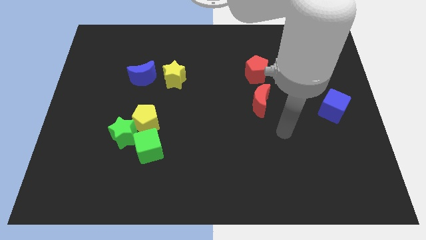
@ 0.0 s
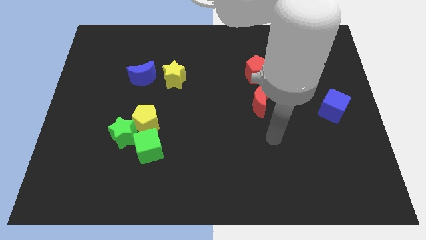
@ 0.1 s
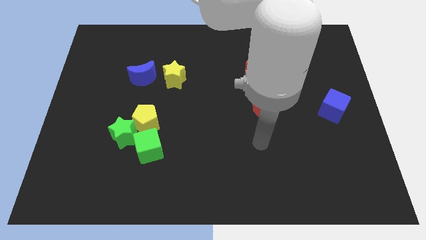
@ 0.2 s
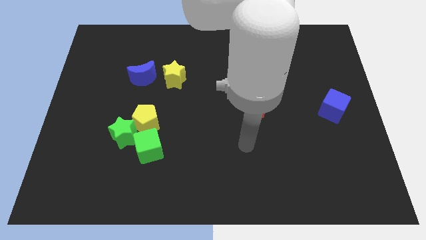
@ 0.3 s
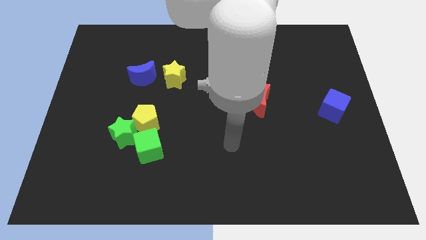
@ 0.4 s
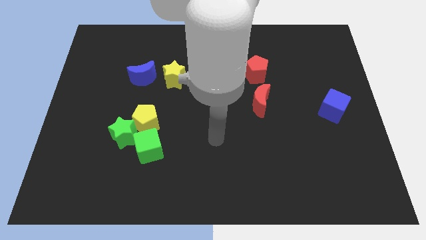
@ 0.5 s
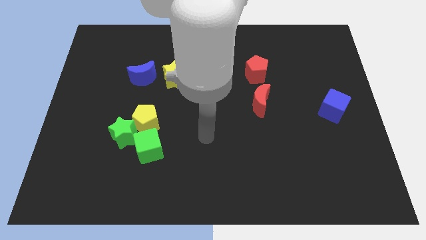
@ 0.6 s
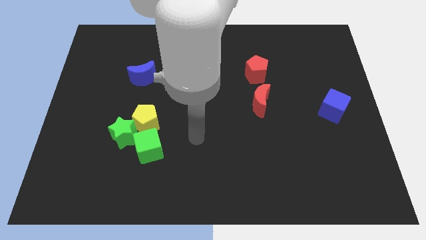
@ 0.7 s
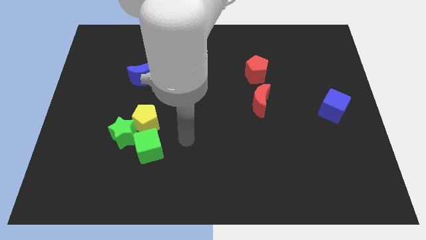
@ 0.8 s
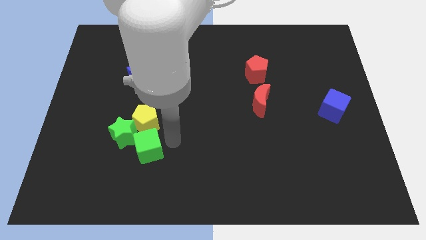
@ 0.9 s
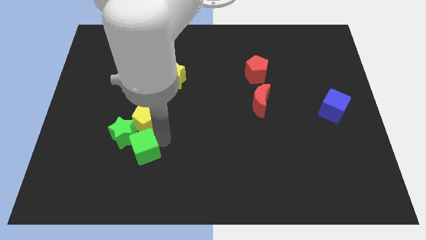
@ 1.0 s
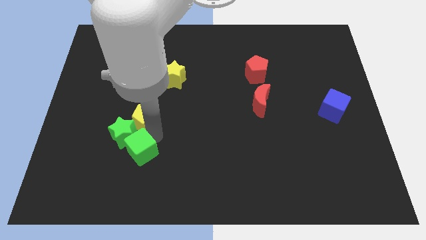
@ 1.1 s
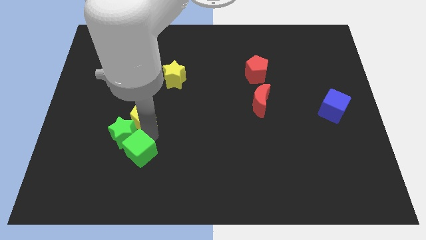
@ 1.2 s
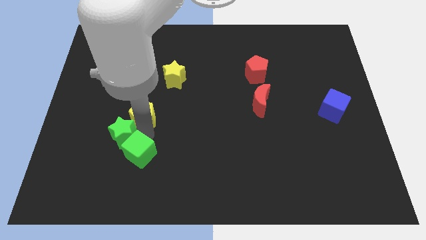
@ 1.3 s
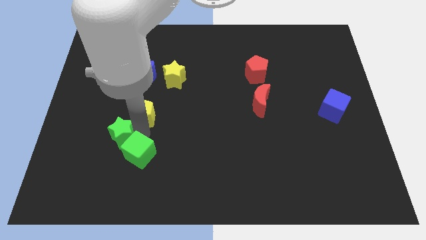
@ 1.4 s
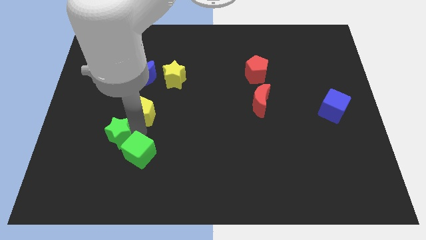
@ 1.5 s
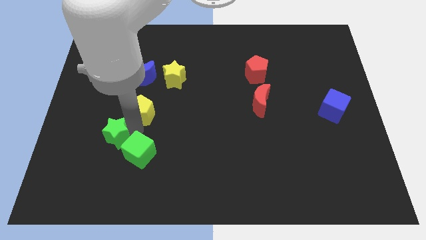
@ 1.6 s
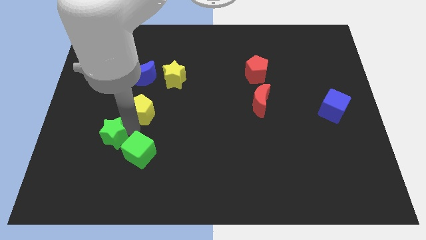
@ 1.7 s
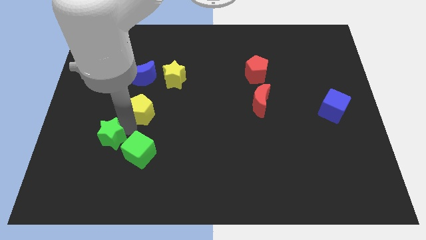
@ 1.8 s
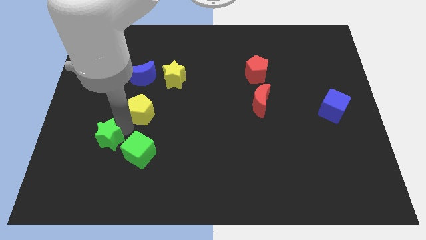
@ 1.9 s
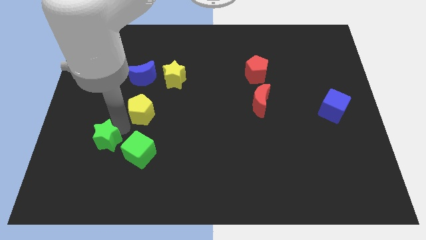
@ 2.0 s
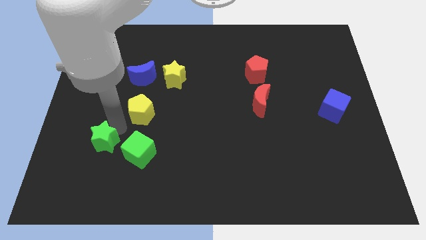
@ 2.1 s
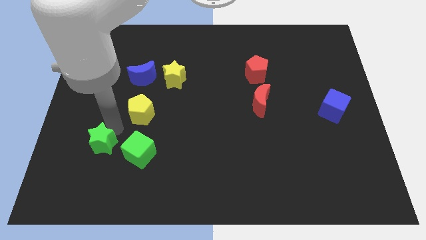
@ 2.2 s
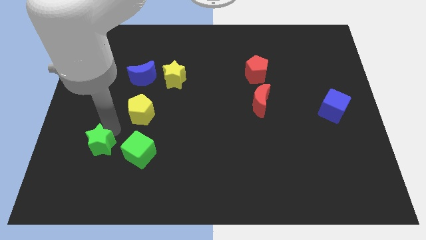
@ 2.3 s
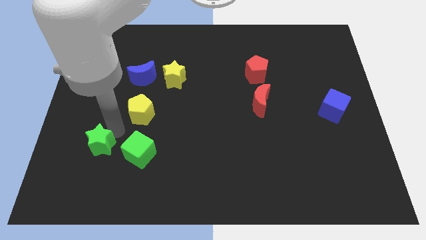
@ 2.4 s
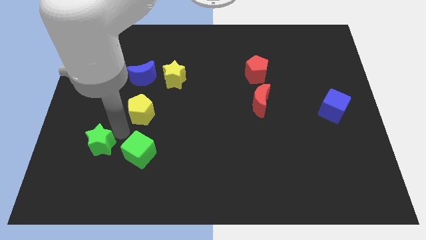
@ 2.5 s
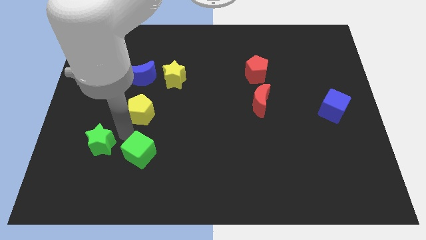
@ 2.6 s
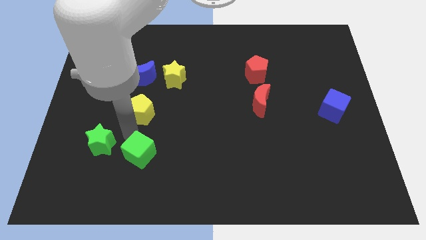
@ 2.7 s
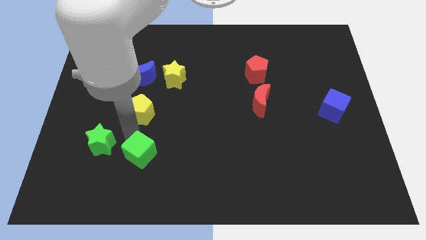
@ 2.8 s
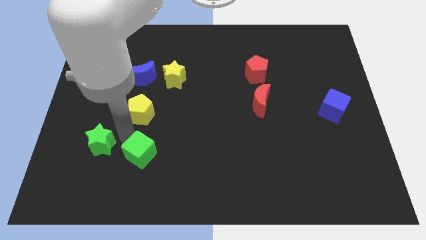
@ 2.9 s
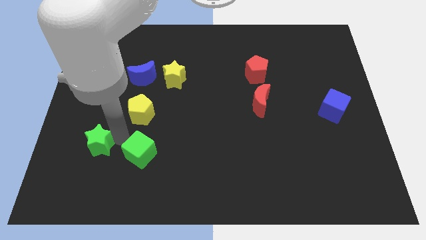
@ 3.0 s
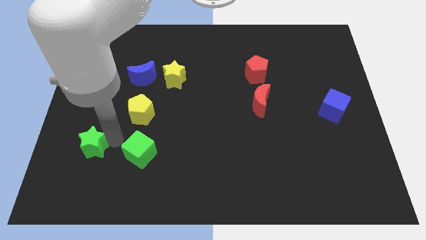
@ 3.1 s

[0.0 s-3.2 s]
move the green star away from the yellow pentagon and green cube

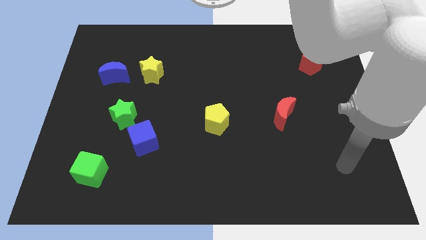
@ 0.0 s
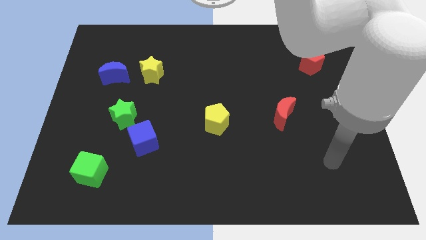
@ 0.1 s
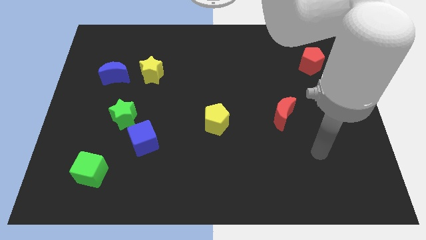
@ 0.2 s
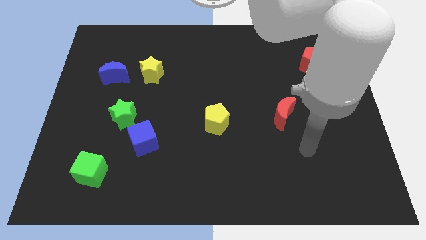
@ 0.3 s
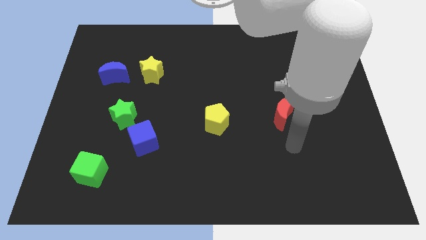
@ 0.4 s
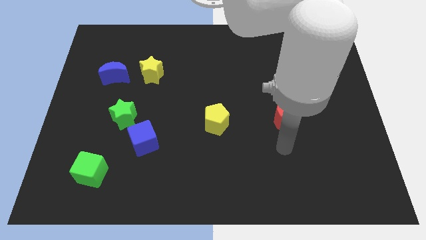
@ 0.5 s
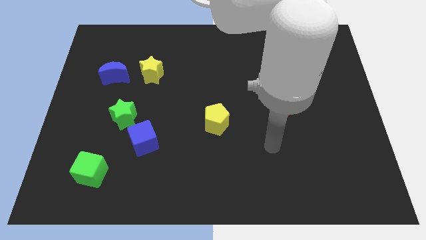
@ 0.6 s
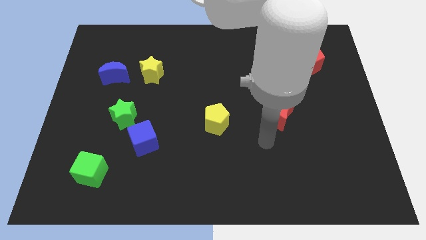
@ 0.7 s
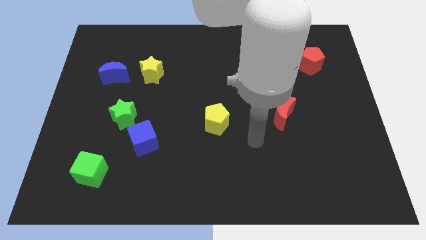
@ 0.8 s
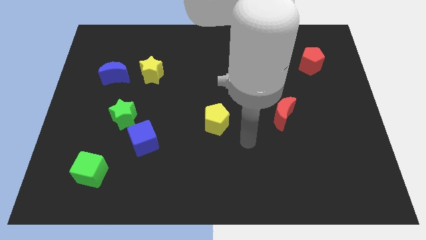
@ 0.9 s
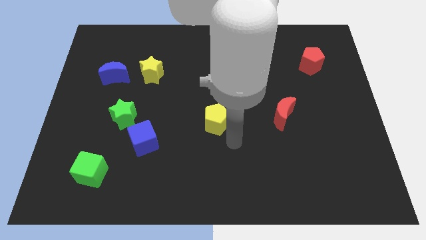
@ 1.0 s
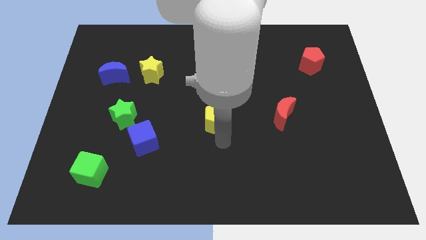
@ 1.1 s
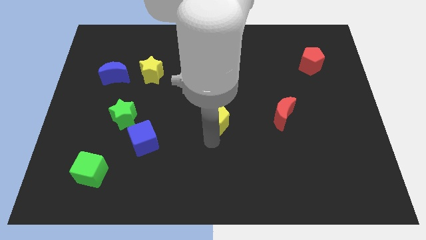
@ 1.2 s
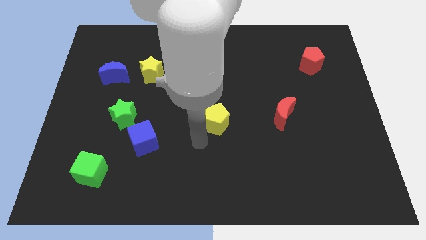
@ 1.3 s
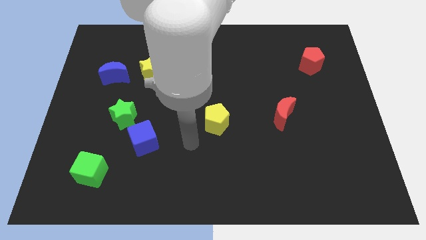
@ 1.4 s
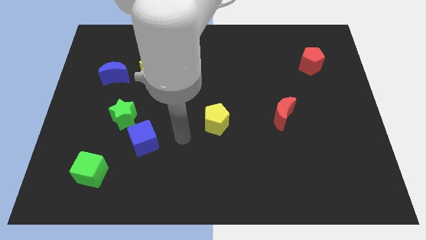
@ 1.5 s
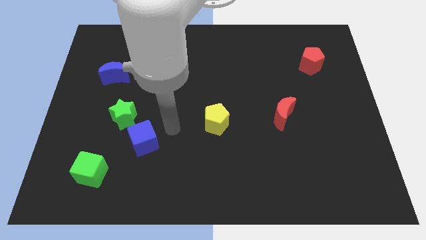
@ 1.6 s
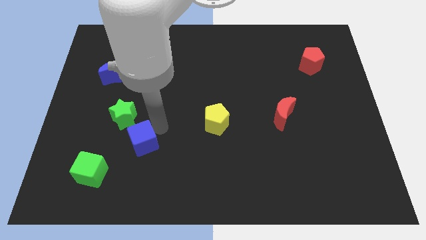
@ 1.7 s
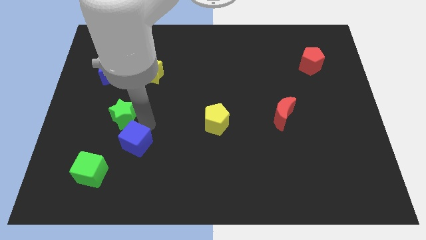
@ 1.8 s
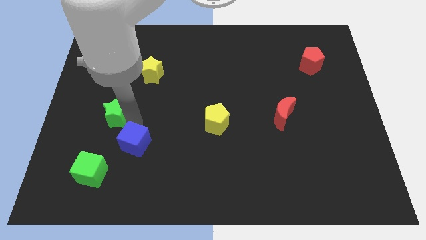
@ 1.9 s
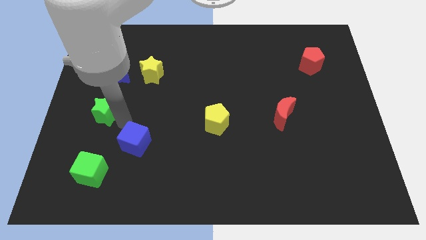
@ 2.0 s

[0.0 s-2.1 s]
separate the blue cube from the green star

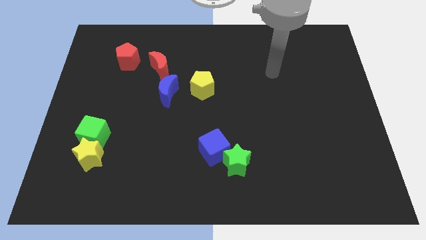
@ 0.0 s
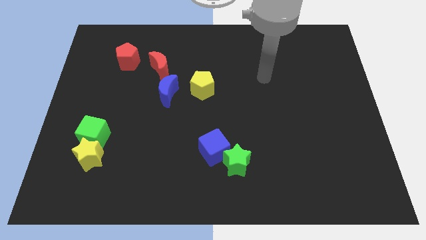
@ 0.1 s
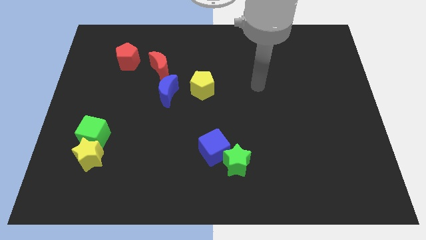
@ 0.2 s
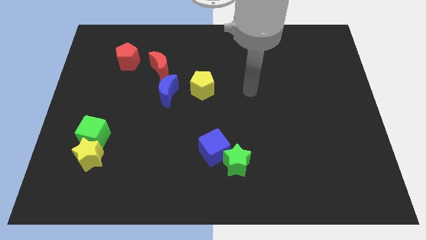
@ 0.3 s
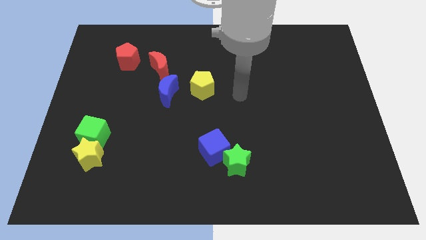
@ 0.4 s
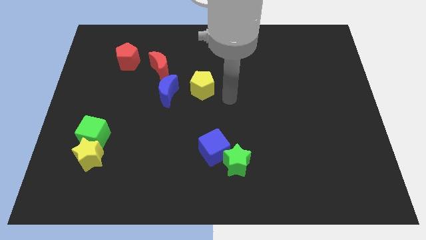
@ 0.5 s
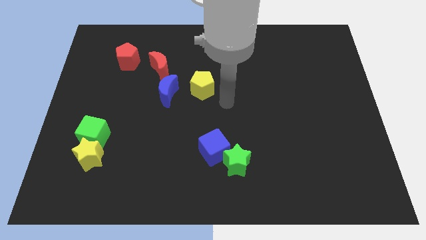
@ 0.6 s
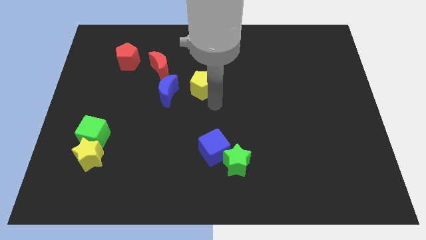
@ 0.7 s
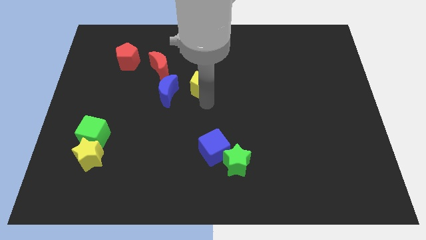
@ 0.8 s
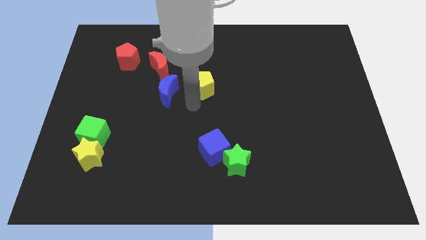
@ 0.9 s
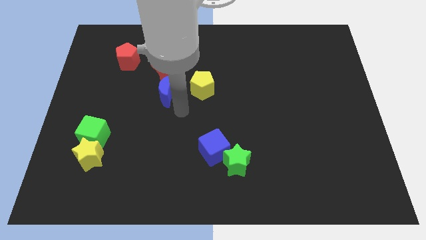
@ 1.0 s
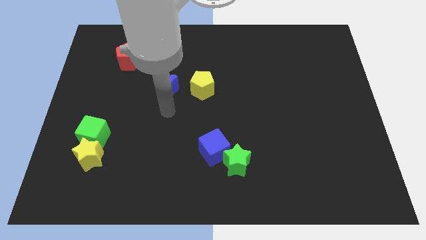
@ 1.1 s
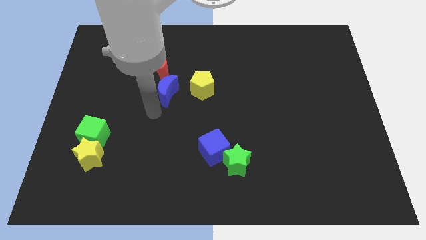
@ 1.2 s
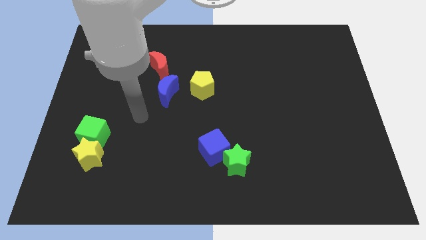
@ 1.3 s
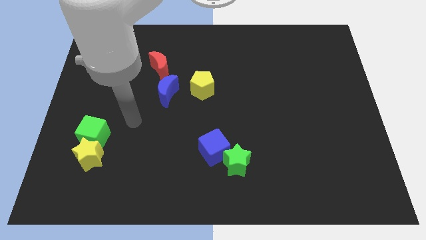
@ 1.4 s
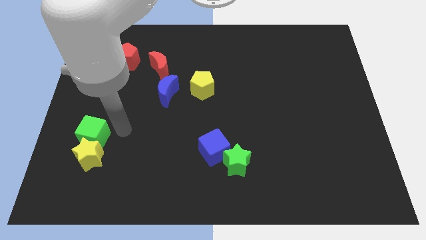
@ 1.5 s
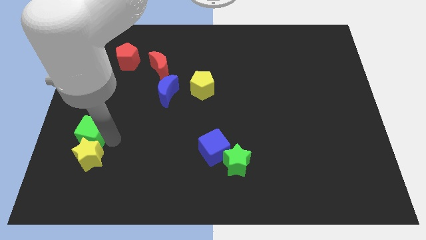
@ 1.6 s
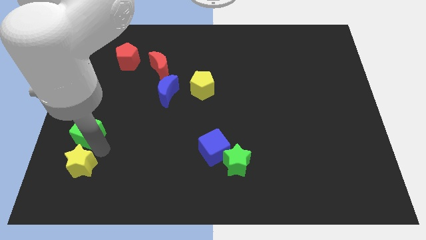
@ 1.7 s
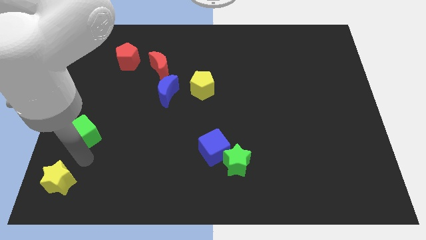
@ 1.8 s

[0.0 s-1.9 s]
pull the green cube apart from the yellow star

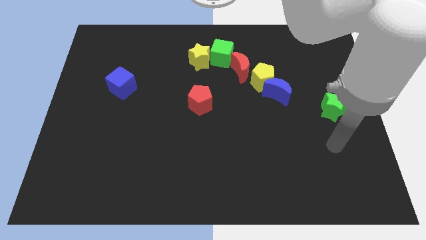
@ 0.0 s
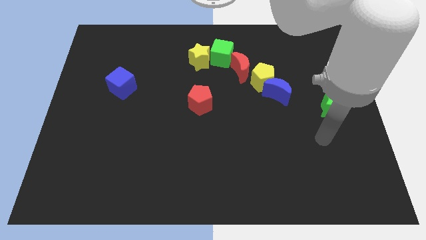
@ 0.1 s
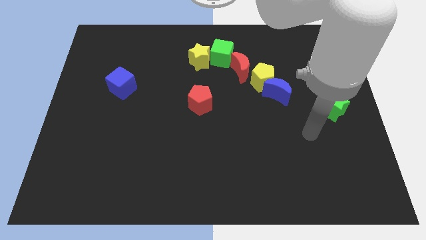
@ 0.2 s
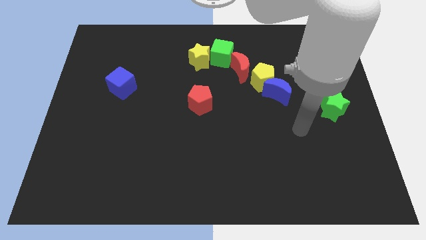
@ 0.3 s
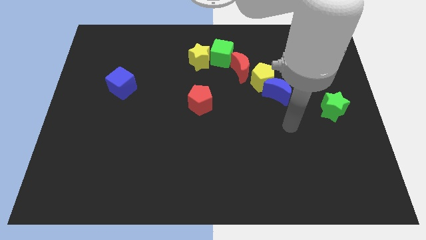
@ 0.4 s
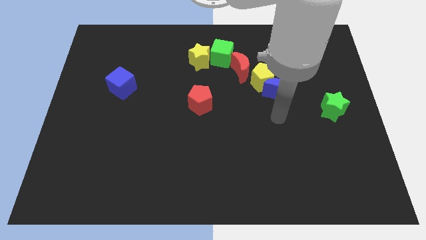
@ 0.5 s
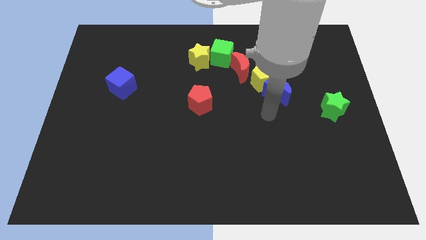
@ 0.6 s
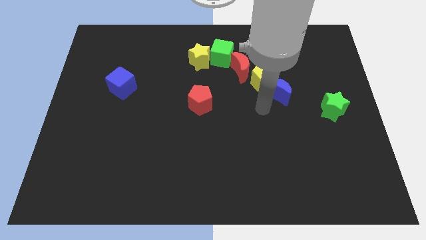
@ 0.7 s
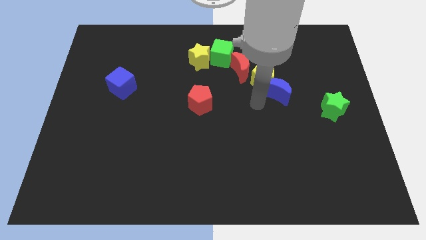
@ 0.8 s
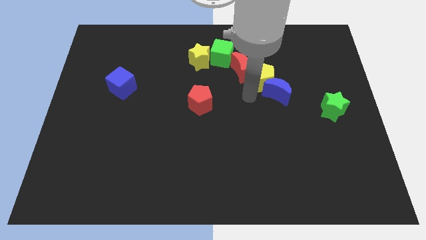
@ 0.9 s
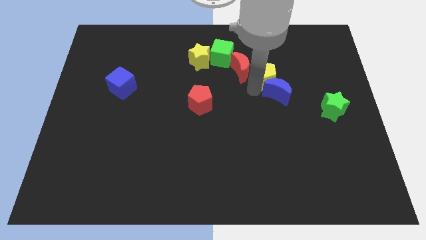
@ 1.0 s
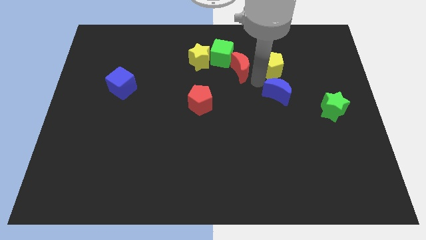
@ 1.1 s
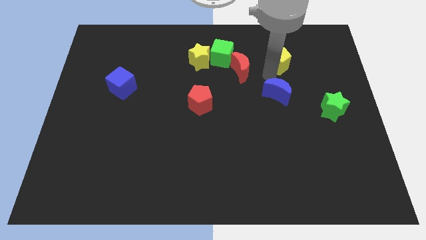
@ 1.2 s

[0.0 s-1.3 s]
move the blue moon away from the yellow pentagon

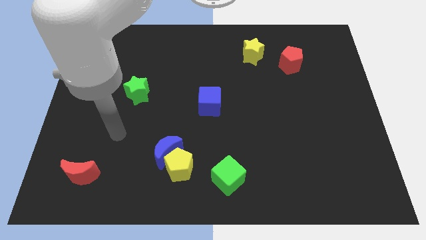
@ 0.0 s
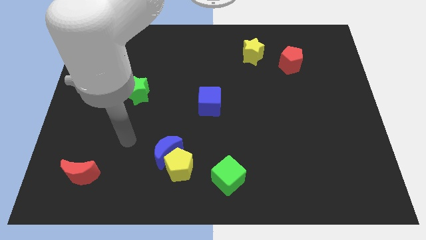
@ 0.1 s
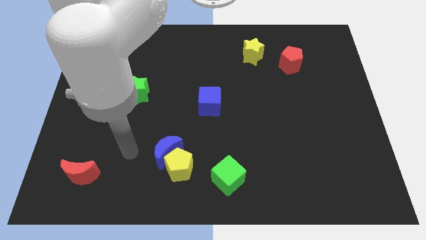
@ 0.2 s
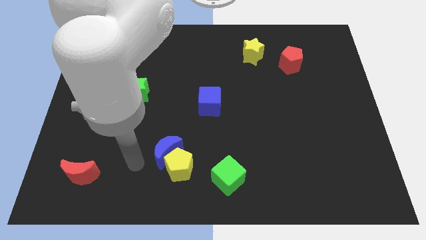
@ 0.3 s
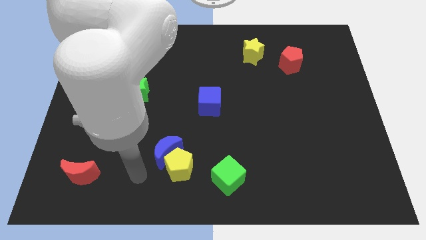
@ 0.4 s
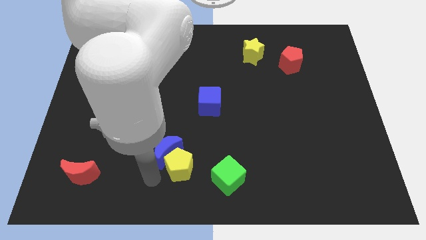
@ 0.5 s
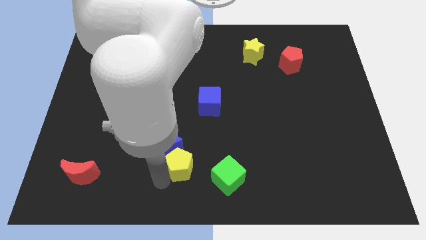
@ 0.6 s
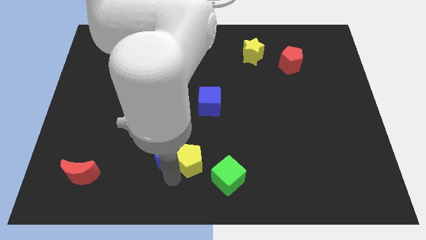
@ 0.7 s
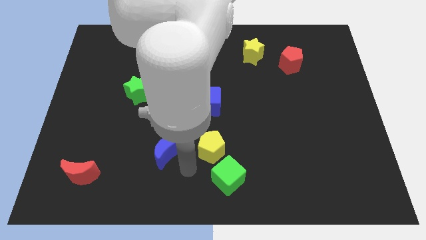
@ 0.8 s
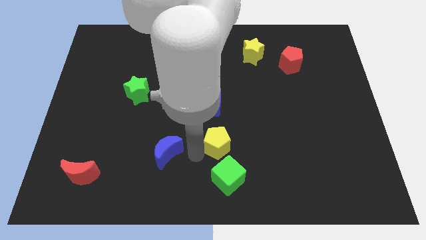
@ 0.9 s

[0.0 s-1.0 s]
pull the blue moon apart from the yellow pentagon
